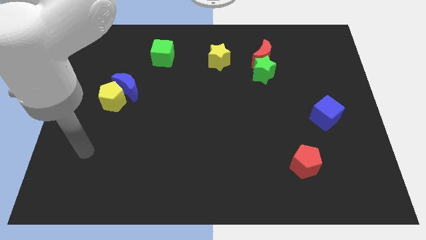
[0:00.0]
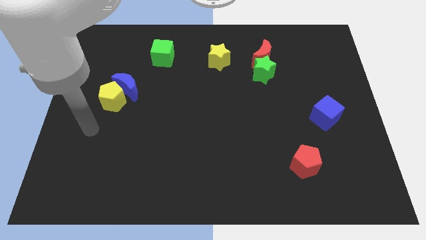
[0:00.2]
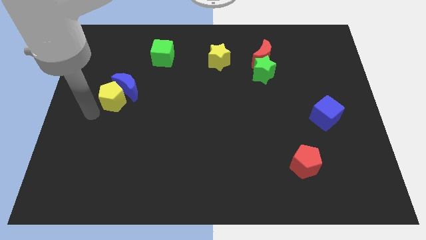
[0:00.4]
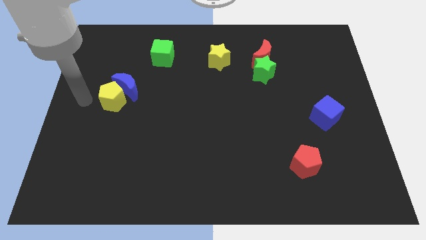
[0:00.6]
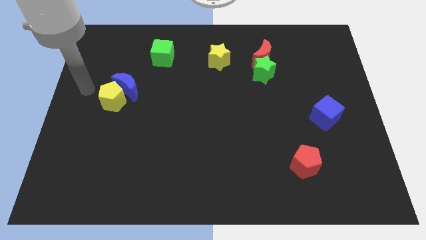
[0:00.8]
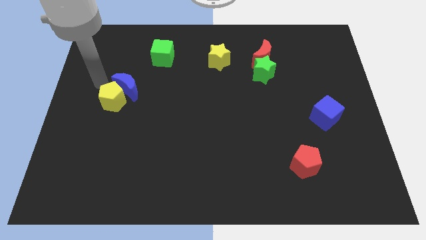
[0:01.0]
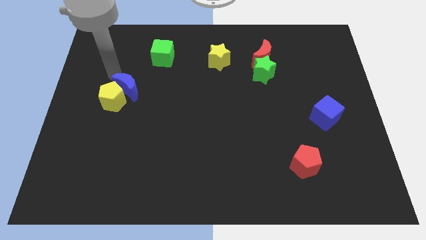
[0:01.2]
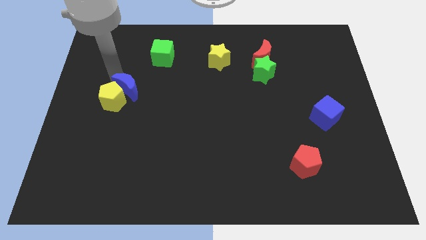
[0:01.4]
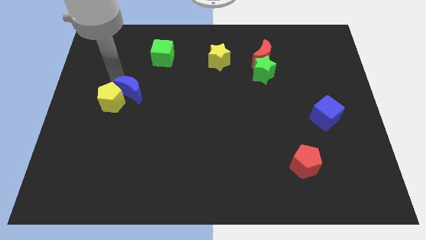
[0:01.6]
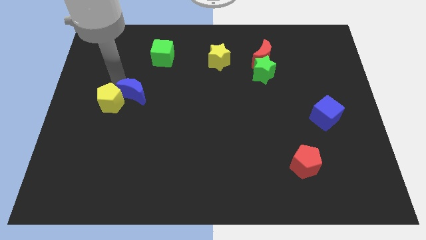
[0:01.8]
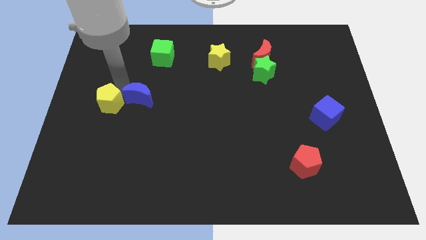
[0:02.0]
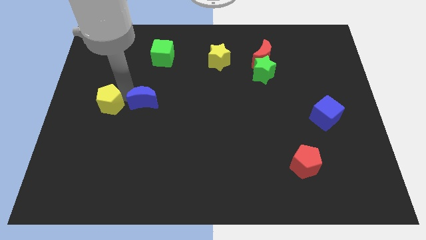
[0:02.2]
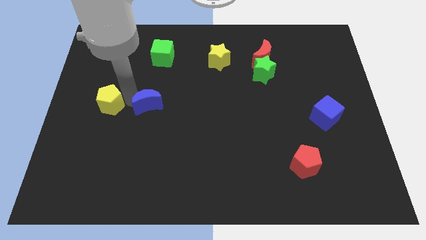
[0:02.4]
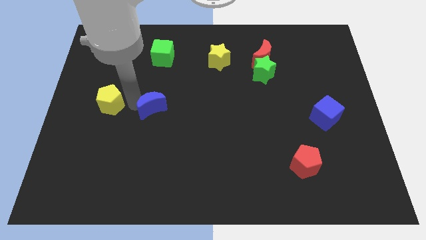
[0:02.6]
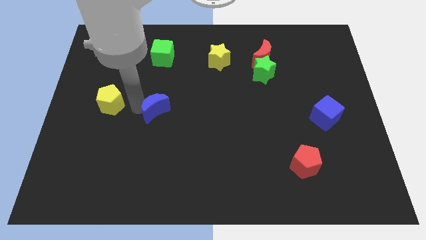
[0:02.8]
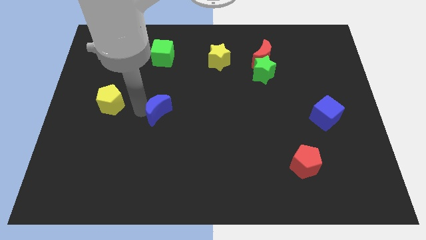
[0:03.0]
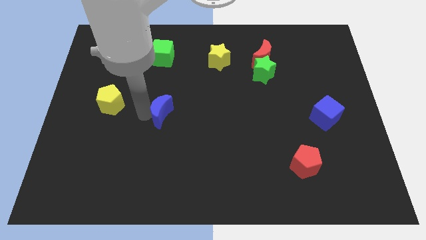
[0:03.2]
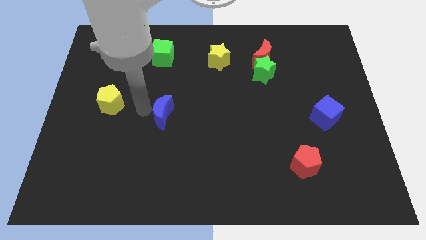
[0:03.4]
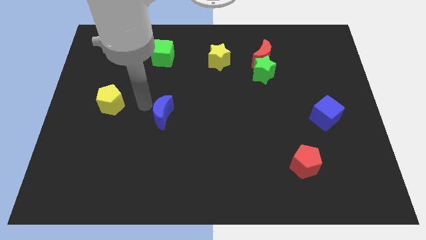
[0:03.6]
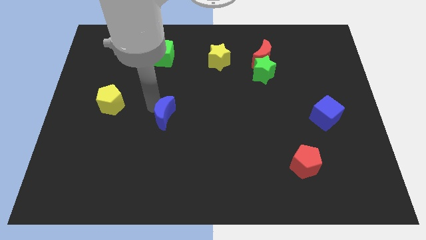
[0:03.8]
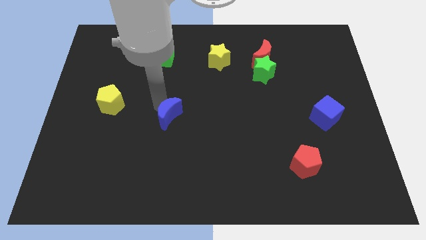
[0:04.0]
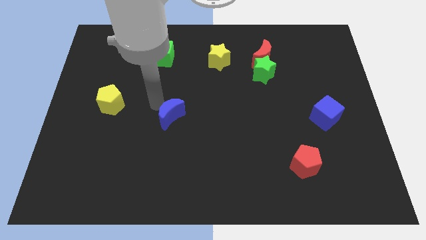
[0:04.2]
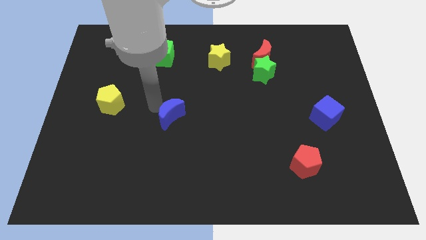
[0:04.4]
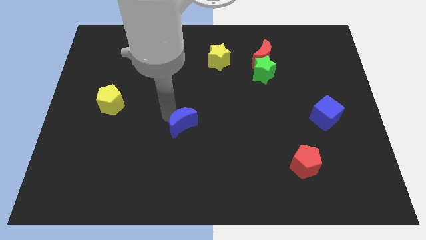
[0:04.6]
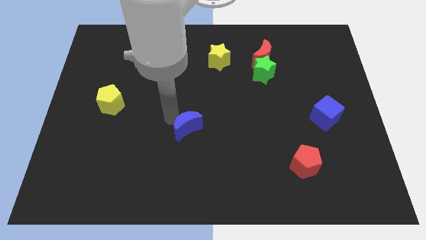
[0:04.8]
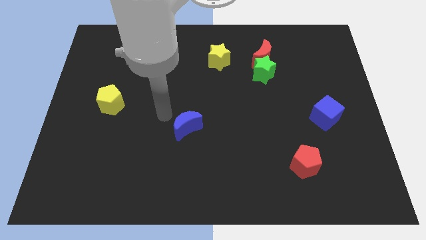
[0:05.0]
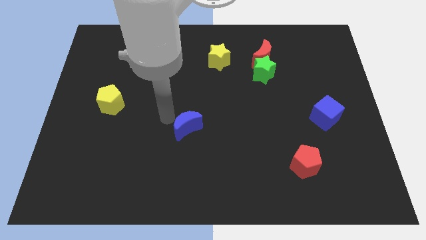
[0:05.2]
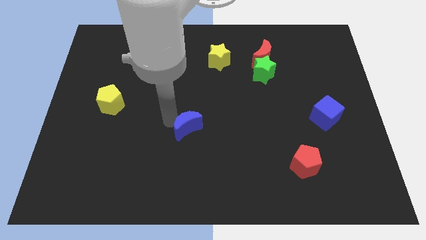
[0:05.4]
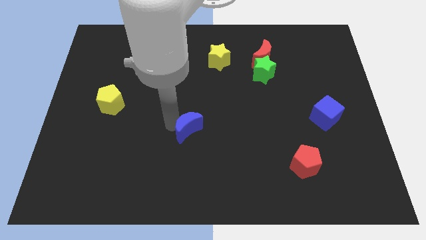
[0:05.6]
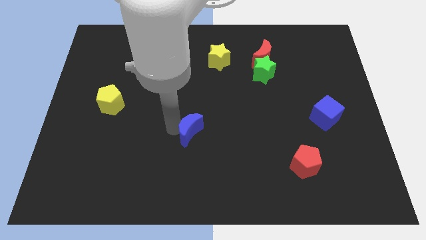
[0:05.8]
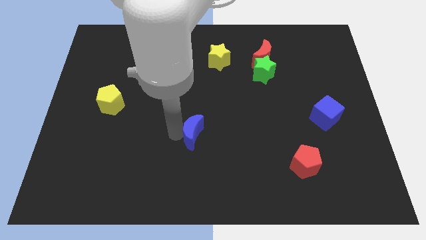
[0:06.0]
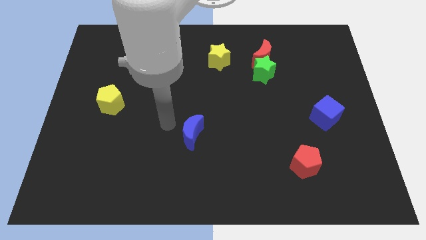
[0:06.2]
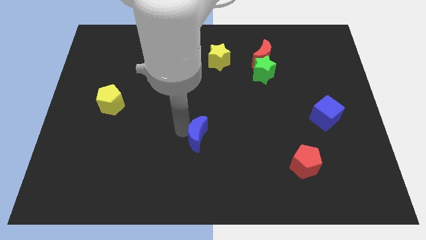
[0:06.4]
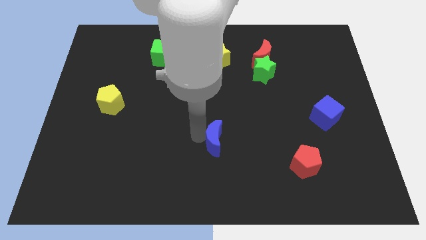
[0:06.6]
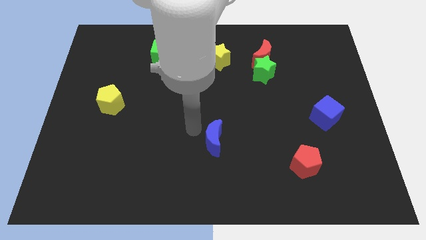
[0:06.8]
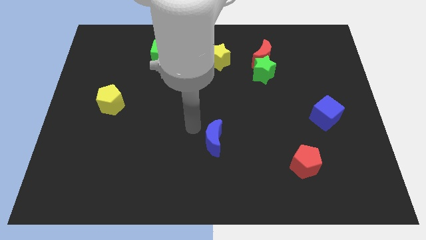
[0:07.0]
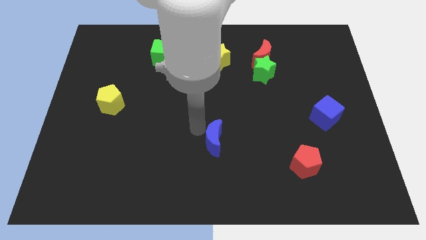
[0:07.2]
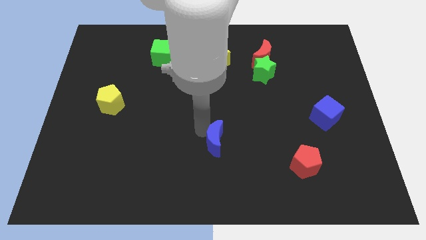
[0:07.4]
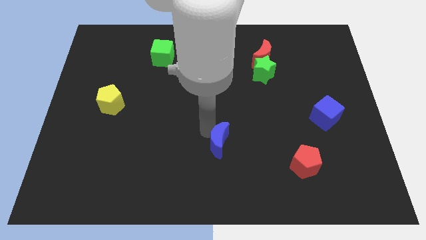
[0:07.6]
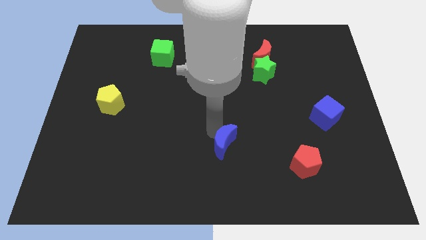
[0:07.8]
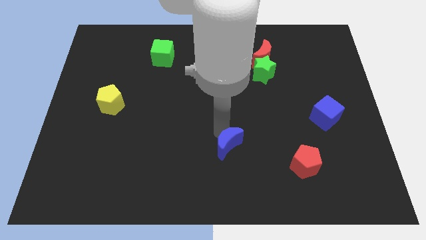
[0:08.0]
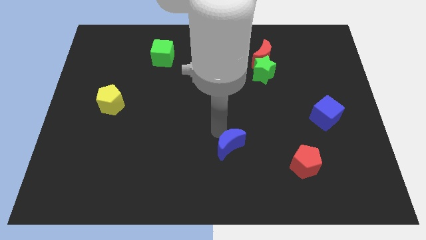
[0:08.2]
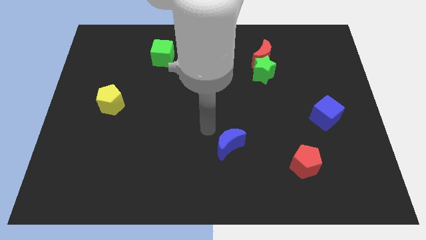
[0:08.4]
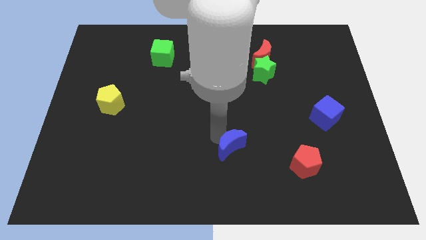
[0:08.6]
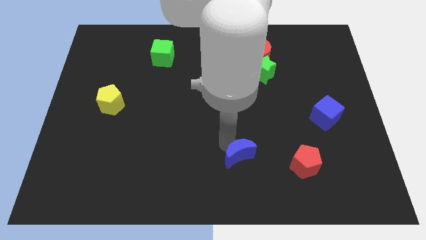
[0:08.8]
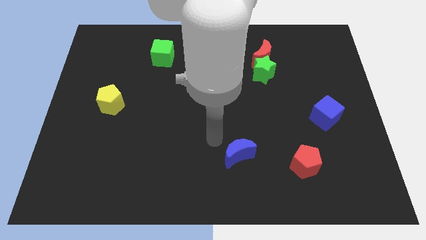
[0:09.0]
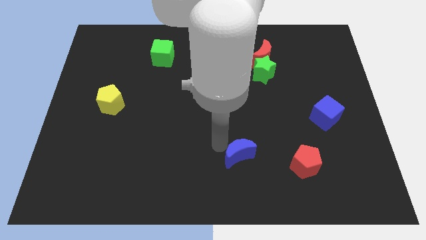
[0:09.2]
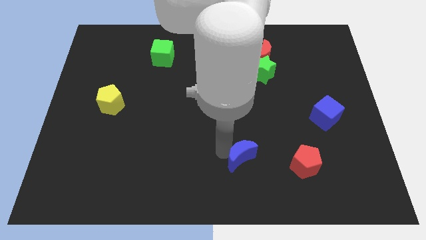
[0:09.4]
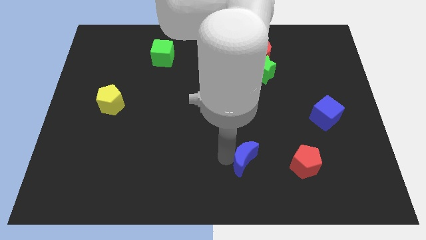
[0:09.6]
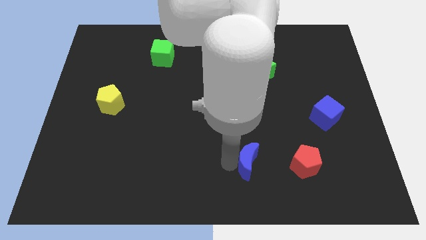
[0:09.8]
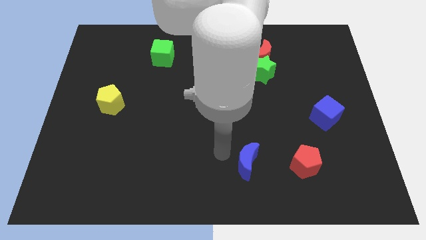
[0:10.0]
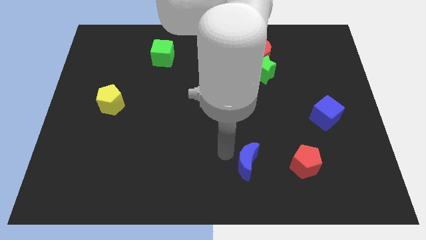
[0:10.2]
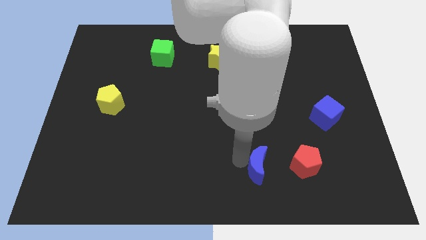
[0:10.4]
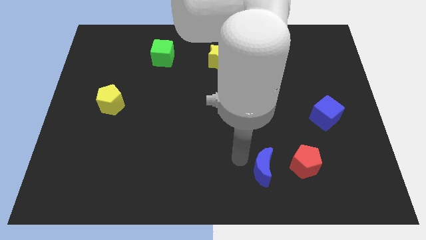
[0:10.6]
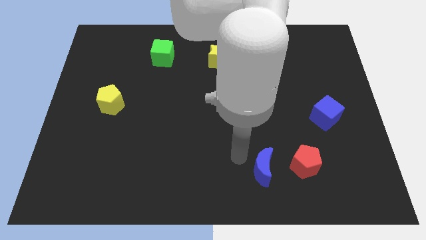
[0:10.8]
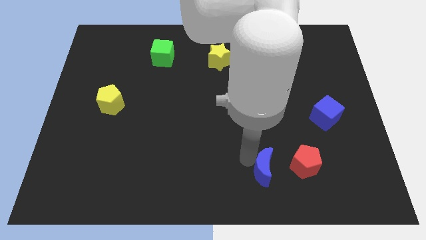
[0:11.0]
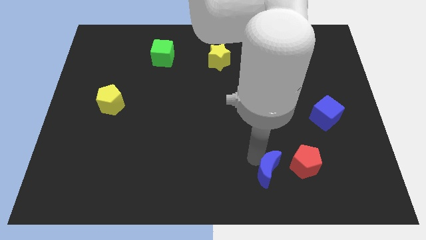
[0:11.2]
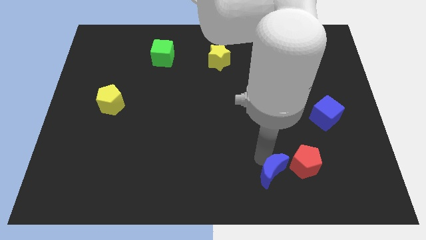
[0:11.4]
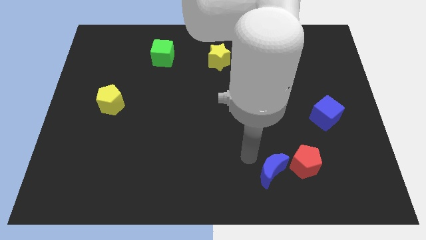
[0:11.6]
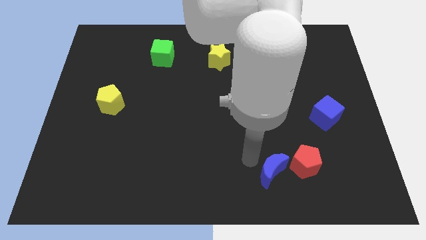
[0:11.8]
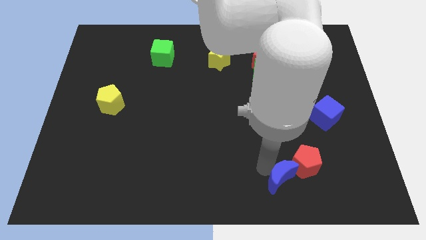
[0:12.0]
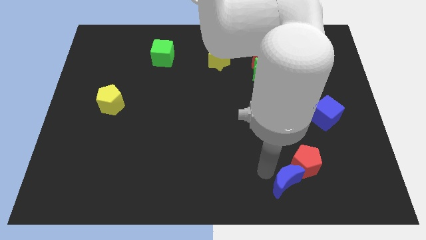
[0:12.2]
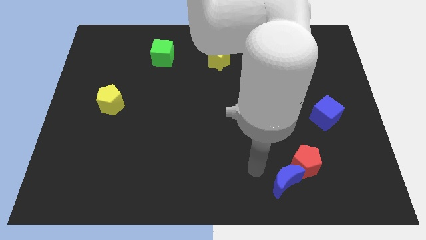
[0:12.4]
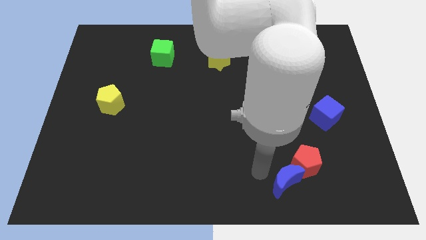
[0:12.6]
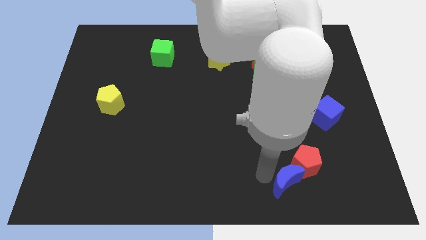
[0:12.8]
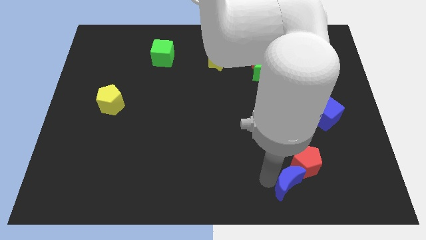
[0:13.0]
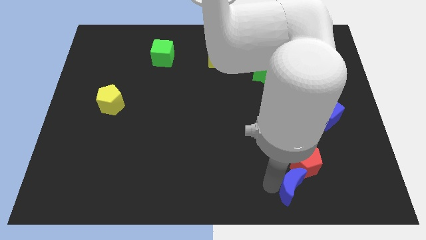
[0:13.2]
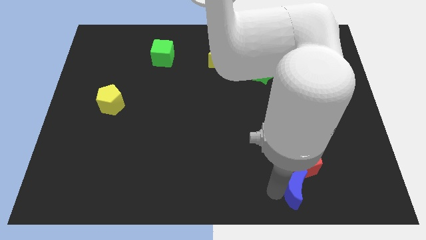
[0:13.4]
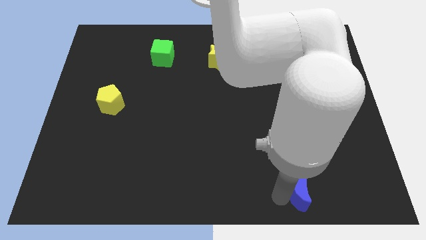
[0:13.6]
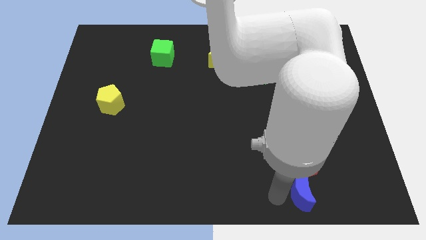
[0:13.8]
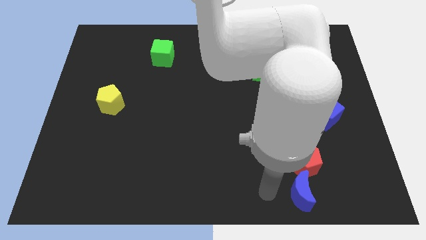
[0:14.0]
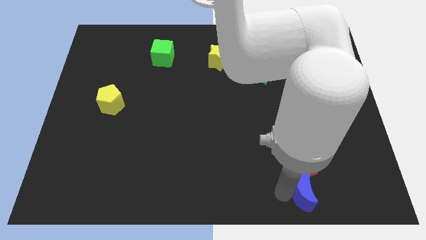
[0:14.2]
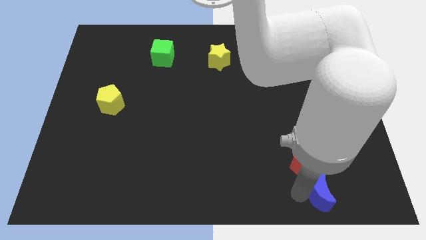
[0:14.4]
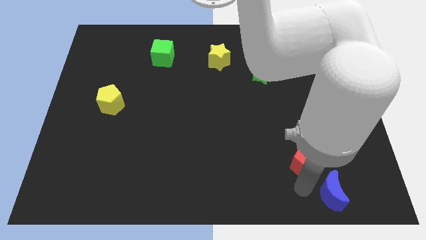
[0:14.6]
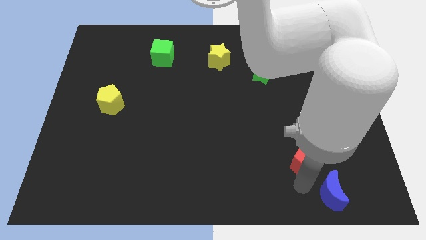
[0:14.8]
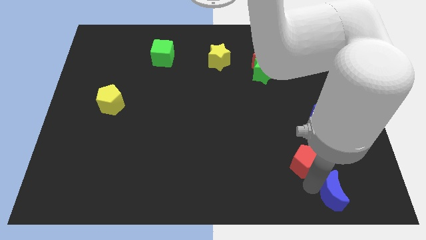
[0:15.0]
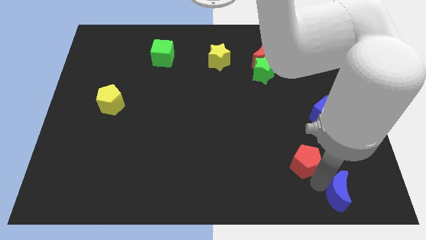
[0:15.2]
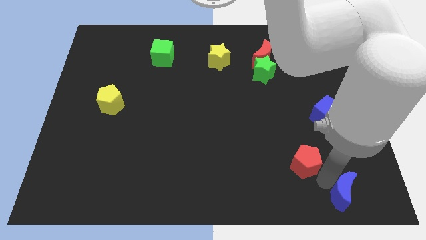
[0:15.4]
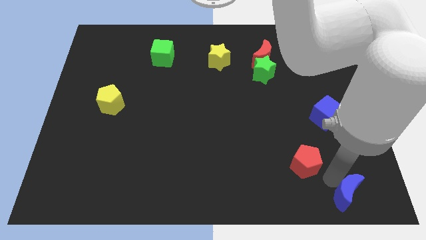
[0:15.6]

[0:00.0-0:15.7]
move the blue moon to the bottom right
